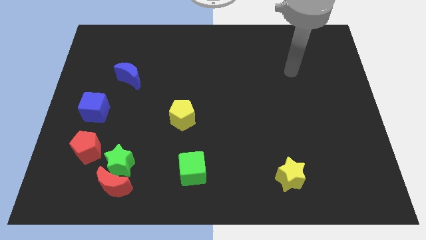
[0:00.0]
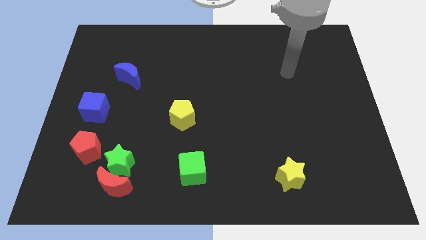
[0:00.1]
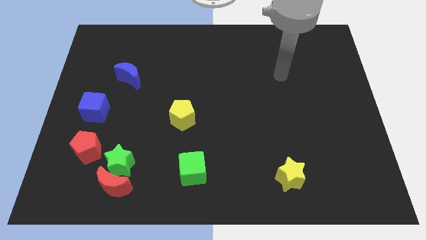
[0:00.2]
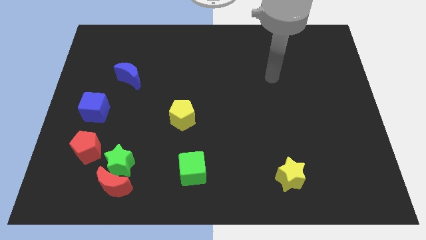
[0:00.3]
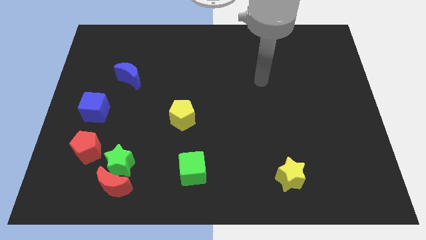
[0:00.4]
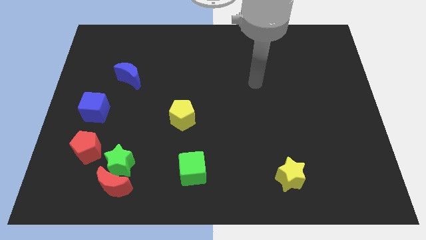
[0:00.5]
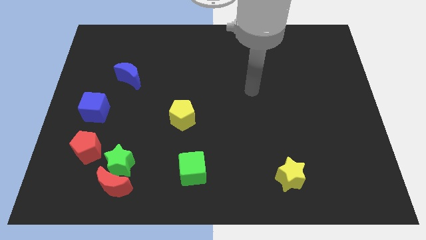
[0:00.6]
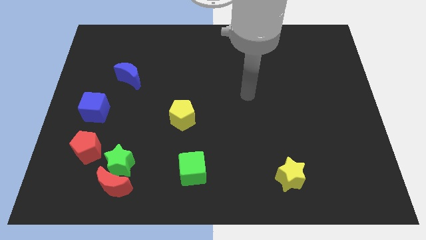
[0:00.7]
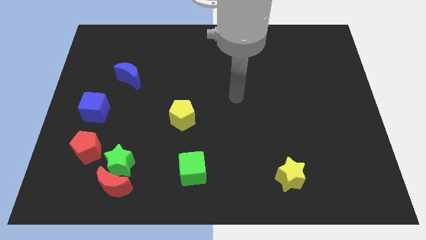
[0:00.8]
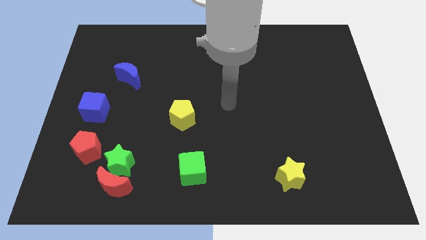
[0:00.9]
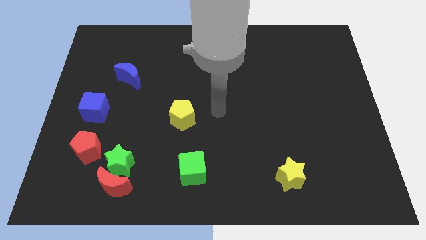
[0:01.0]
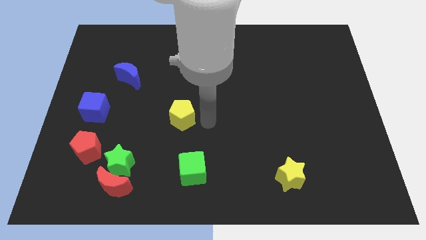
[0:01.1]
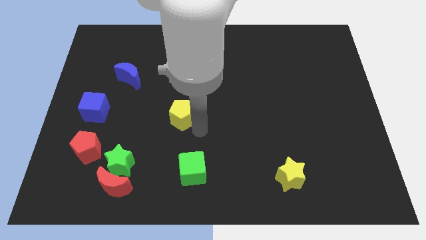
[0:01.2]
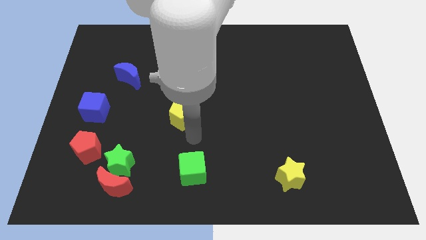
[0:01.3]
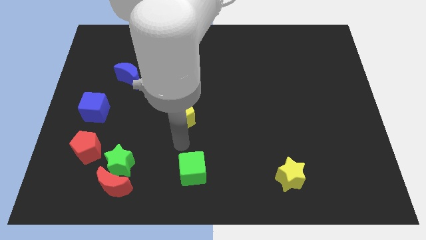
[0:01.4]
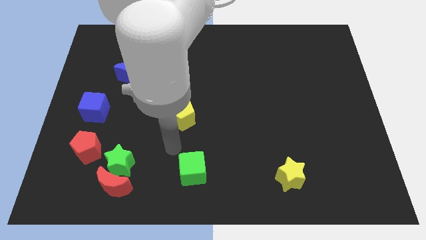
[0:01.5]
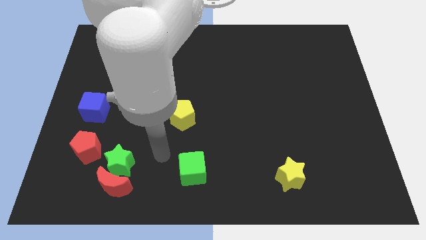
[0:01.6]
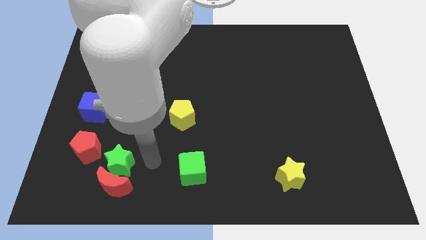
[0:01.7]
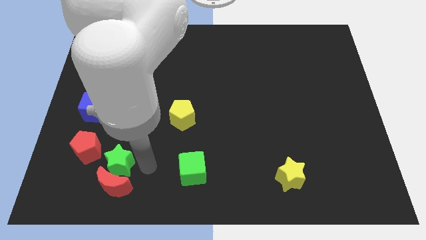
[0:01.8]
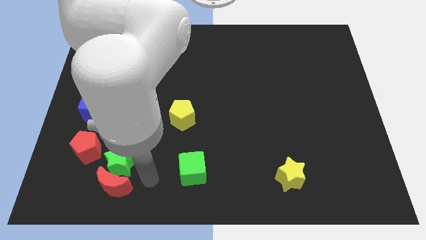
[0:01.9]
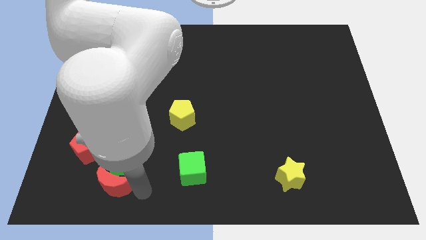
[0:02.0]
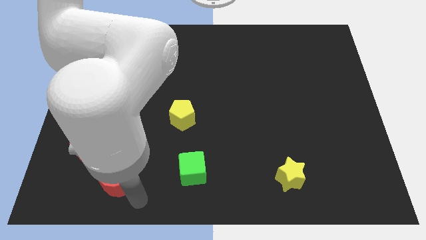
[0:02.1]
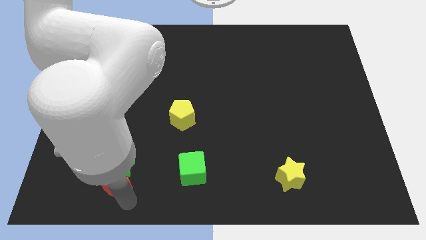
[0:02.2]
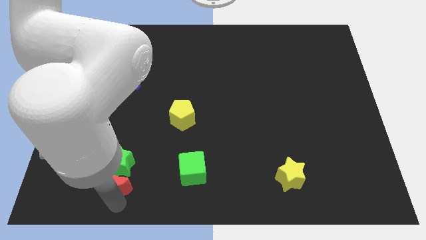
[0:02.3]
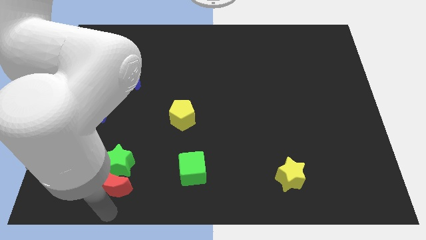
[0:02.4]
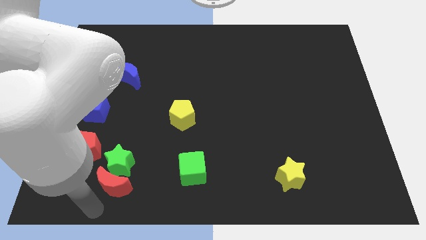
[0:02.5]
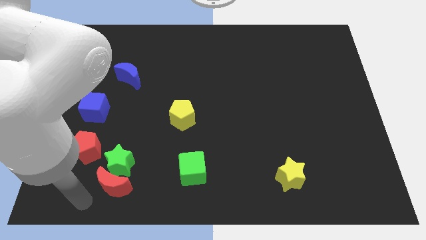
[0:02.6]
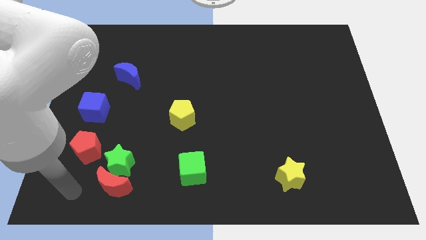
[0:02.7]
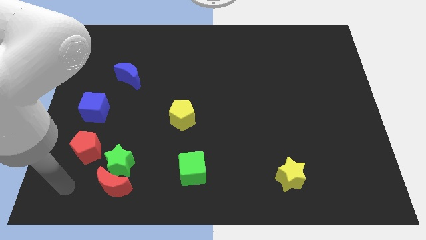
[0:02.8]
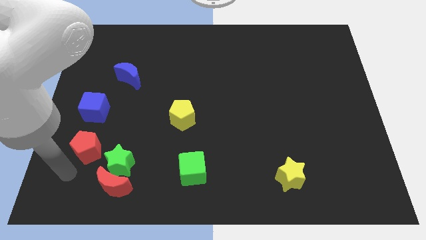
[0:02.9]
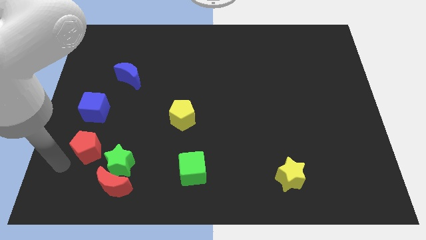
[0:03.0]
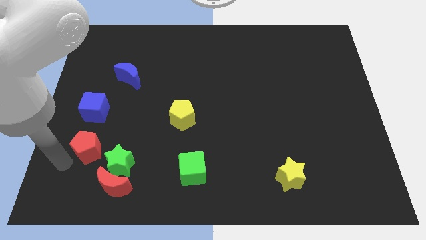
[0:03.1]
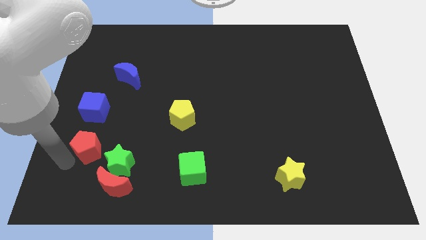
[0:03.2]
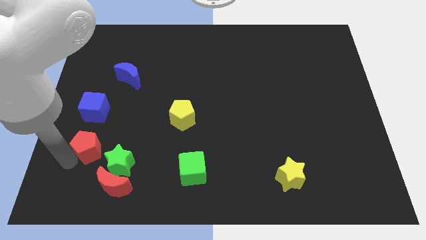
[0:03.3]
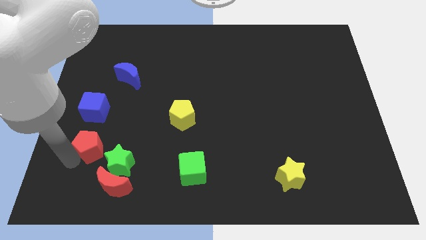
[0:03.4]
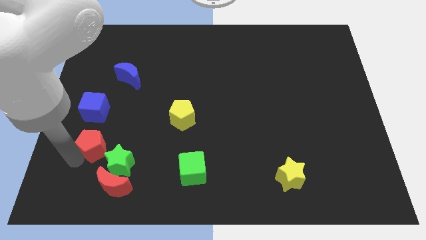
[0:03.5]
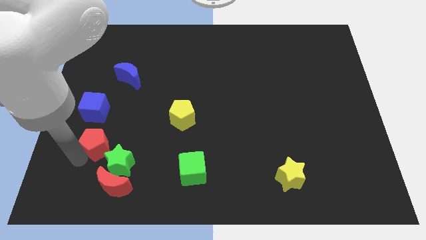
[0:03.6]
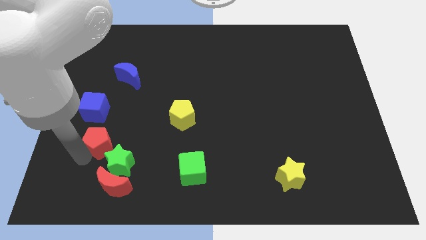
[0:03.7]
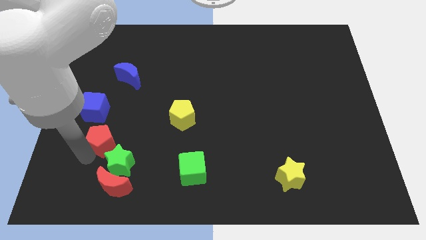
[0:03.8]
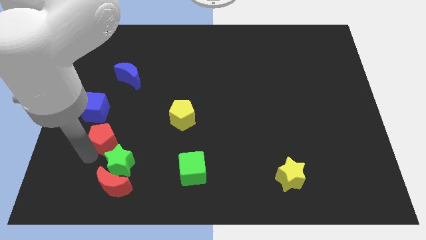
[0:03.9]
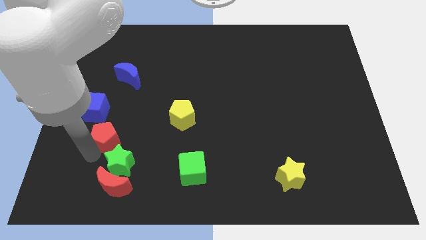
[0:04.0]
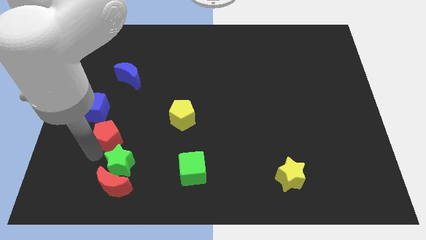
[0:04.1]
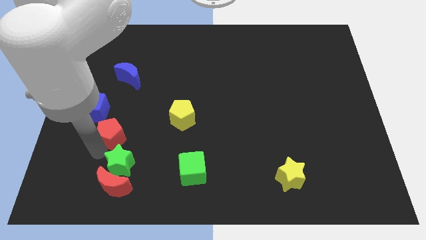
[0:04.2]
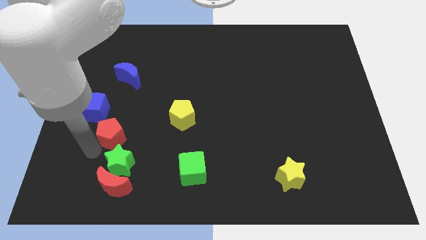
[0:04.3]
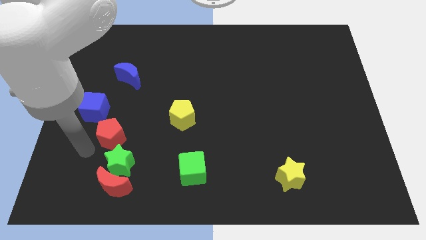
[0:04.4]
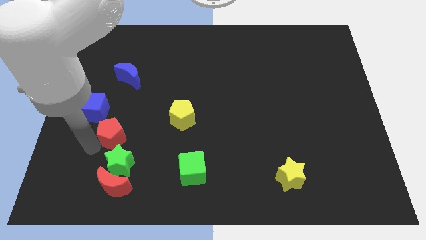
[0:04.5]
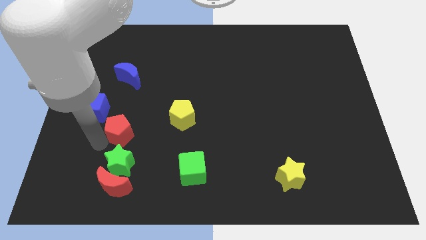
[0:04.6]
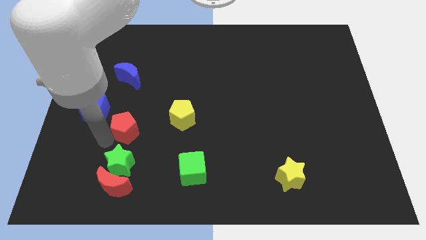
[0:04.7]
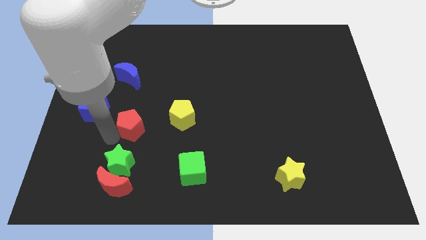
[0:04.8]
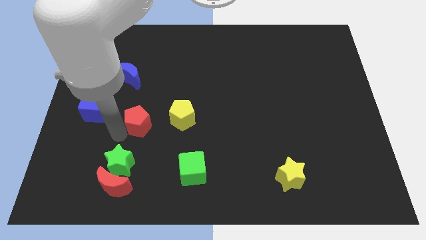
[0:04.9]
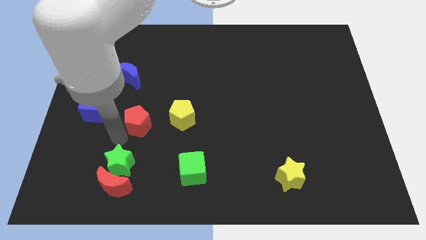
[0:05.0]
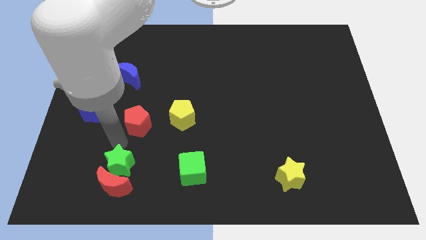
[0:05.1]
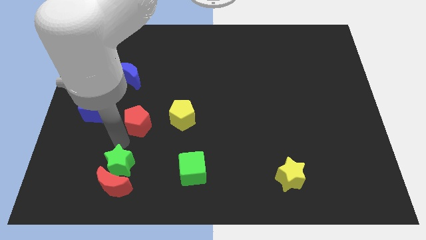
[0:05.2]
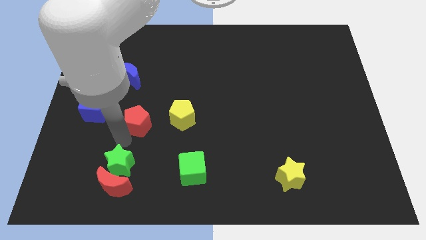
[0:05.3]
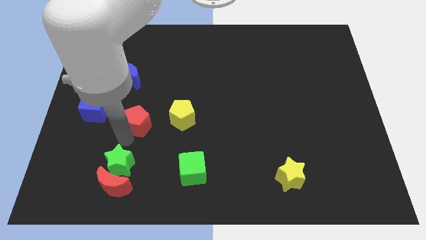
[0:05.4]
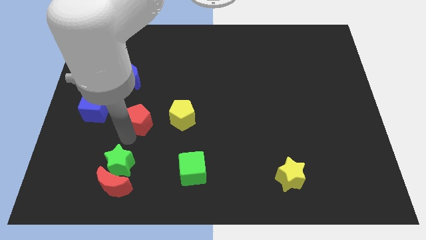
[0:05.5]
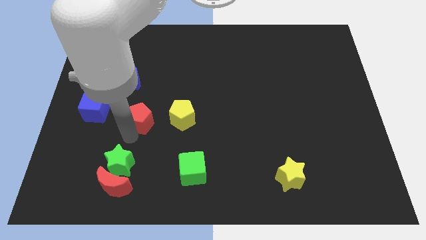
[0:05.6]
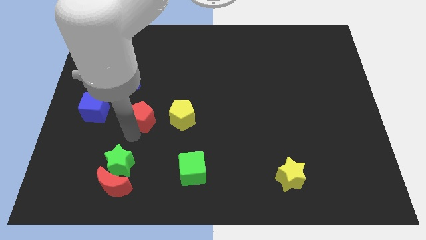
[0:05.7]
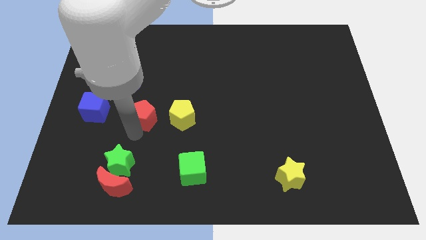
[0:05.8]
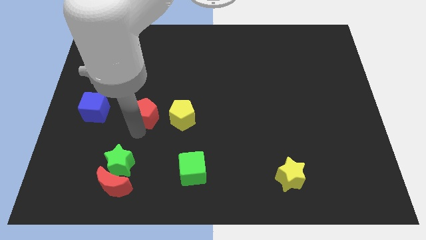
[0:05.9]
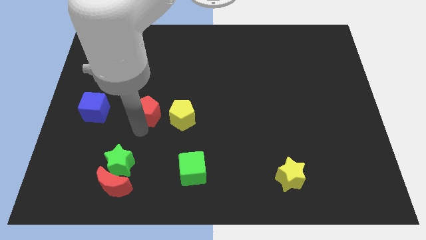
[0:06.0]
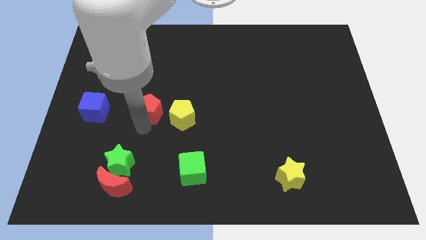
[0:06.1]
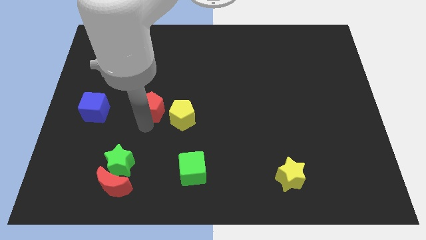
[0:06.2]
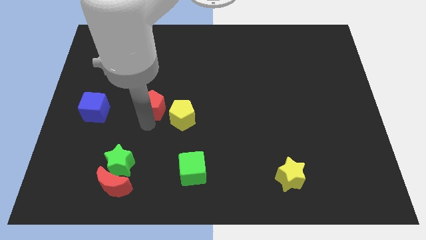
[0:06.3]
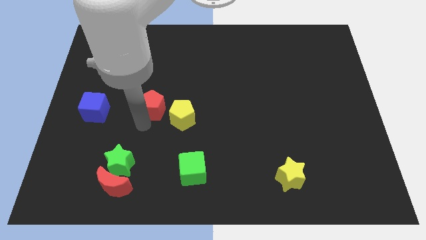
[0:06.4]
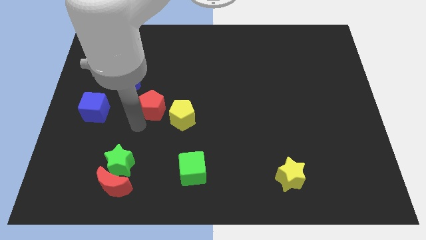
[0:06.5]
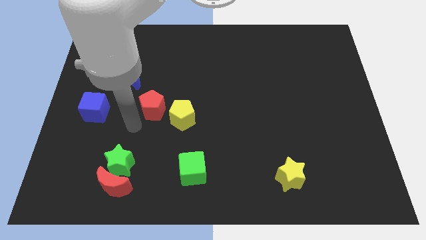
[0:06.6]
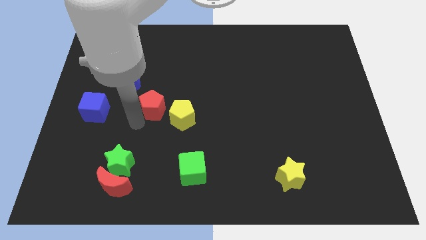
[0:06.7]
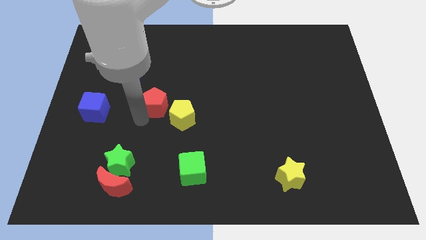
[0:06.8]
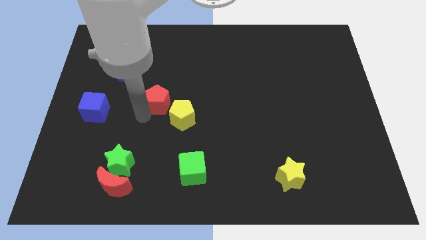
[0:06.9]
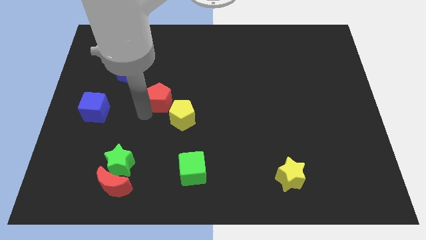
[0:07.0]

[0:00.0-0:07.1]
push the red pentagon to the middle of the board
